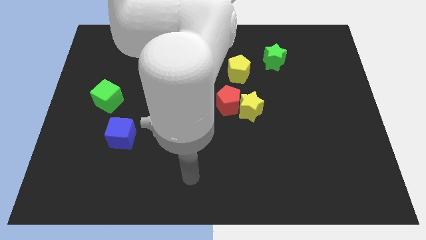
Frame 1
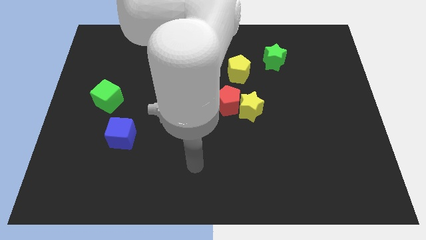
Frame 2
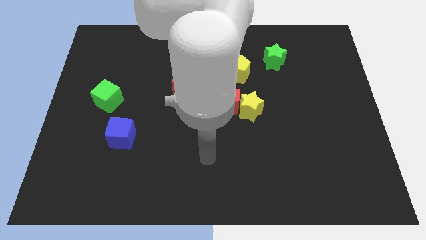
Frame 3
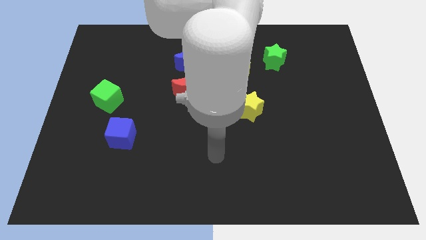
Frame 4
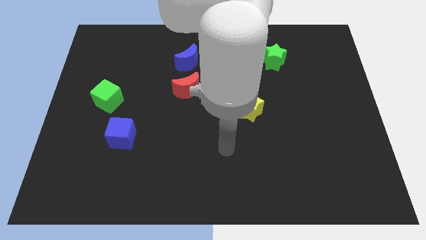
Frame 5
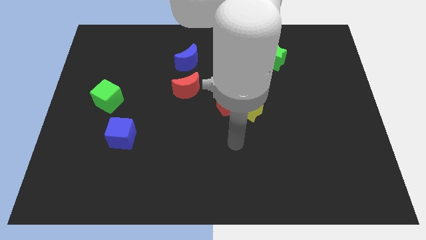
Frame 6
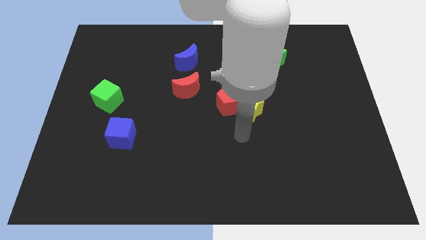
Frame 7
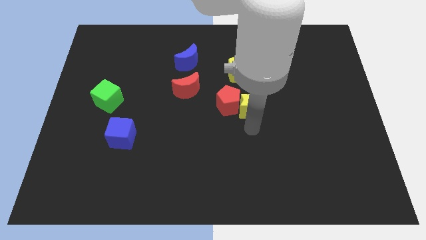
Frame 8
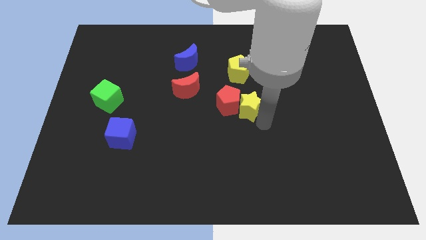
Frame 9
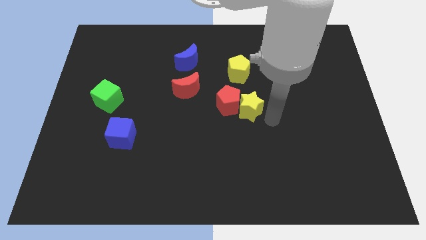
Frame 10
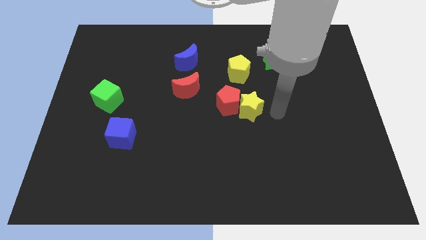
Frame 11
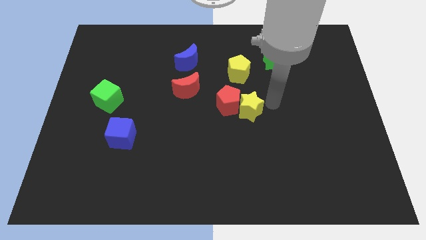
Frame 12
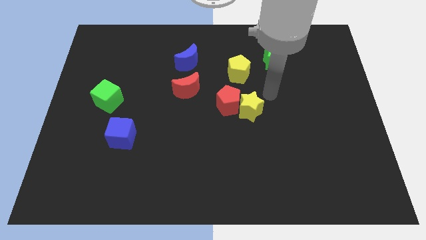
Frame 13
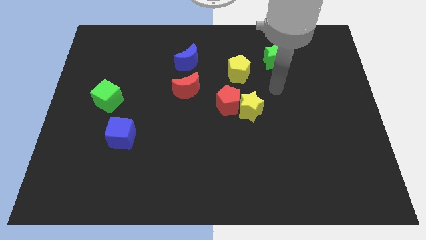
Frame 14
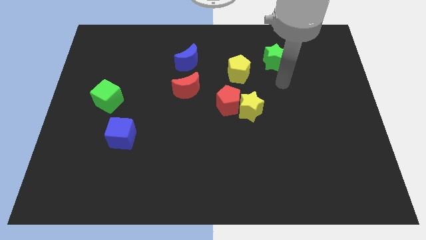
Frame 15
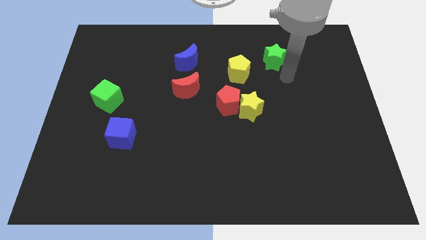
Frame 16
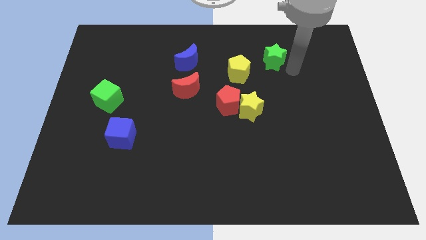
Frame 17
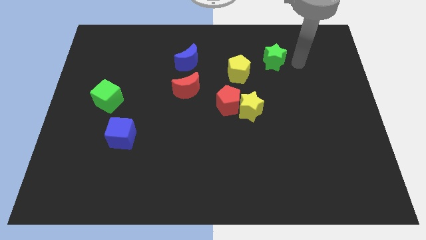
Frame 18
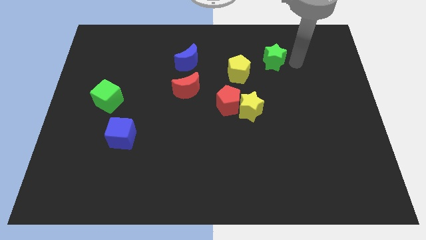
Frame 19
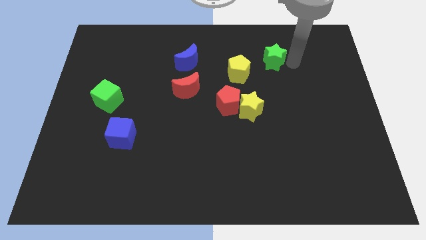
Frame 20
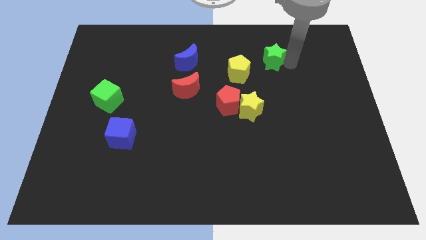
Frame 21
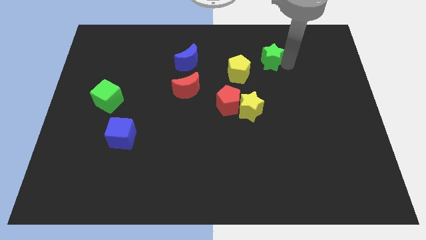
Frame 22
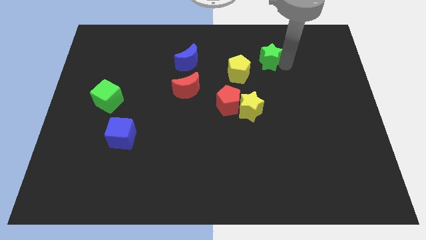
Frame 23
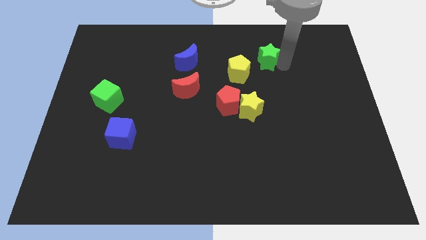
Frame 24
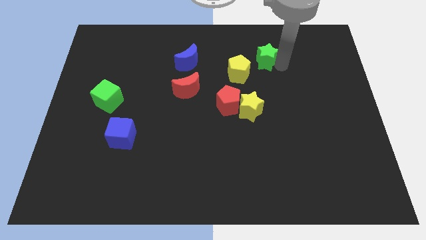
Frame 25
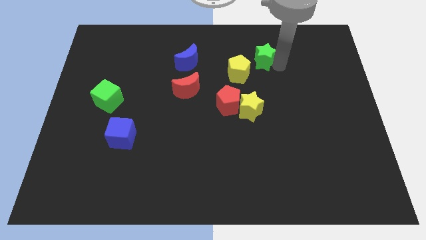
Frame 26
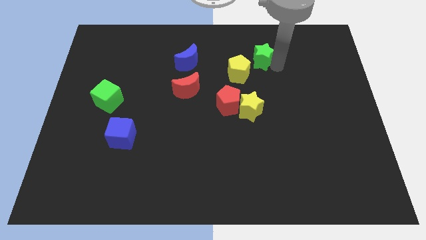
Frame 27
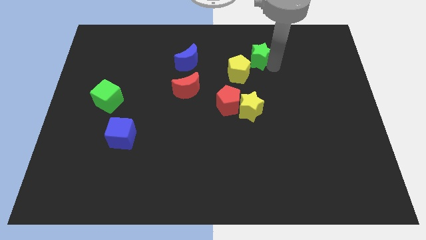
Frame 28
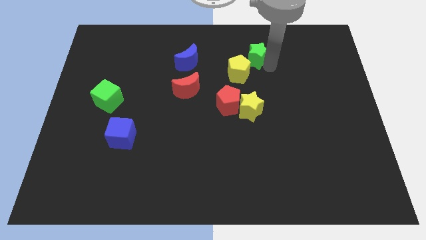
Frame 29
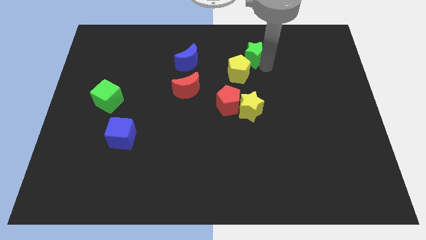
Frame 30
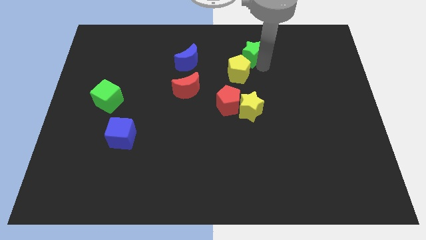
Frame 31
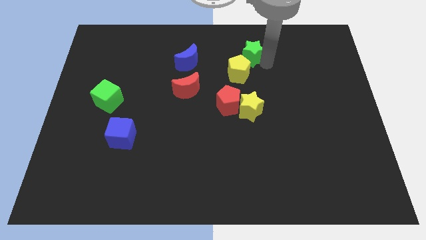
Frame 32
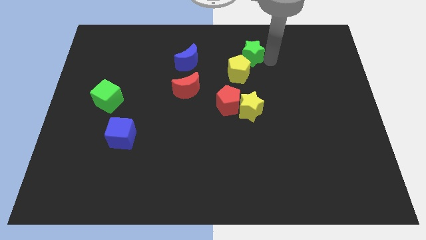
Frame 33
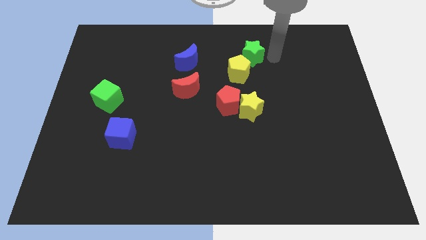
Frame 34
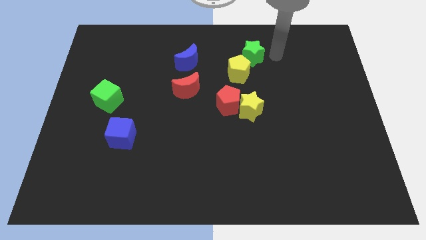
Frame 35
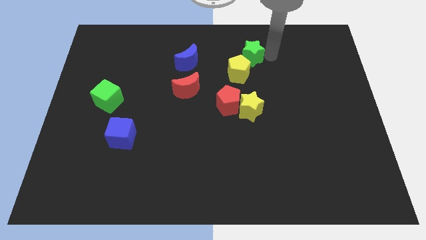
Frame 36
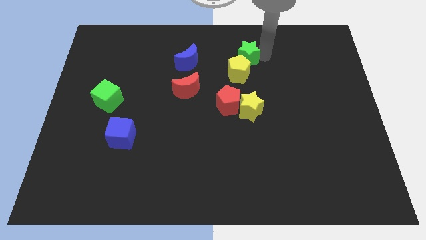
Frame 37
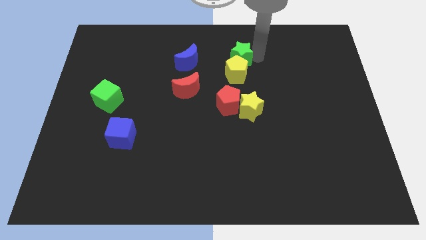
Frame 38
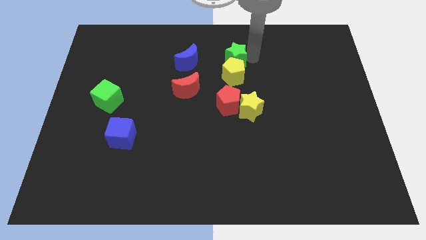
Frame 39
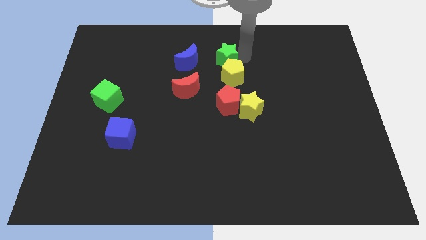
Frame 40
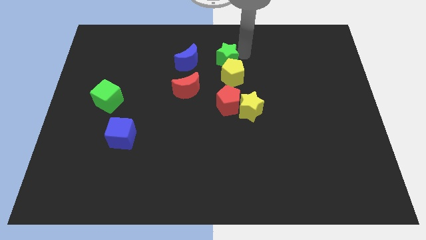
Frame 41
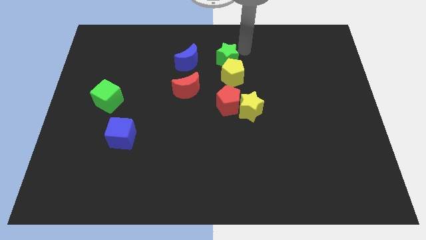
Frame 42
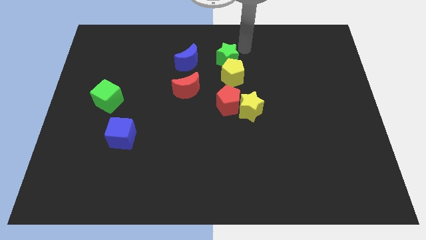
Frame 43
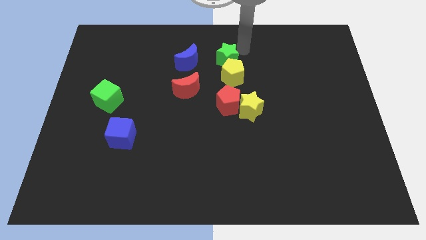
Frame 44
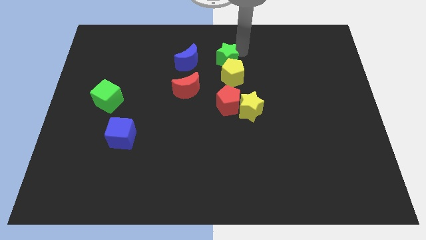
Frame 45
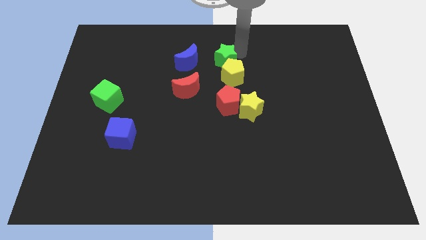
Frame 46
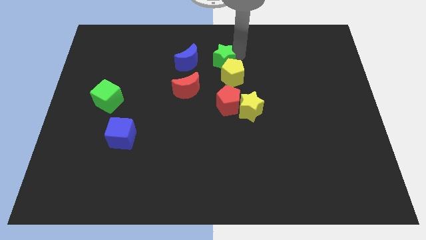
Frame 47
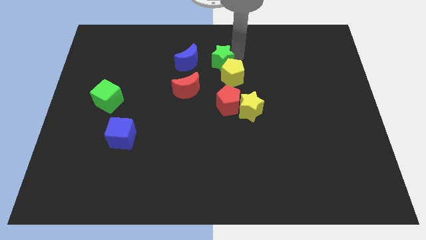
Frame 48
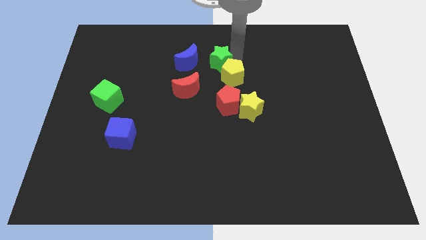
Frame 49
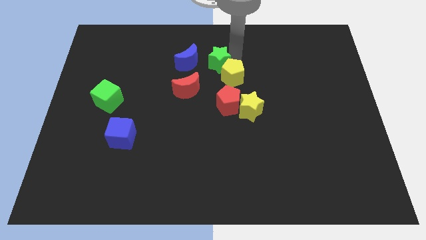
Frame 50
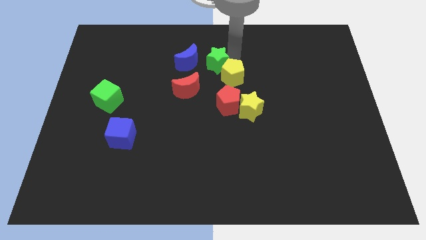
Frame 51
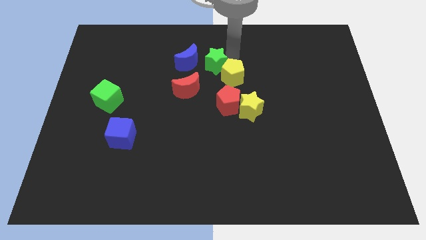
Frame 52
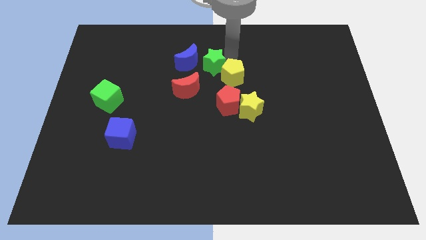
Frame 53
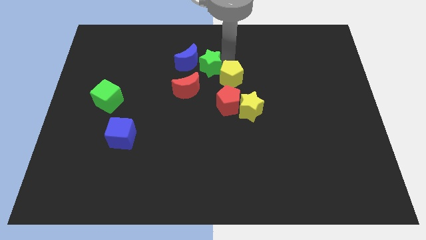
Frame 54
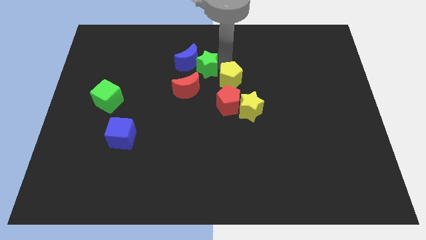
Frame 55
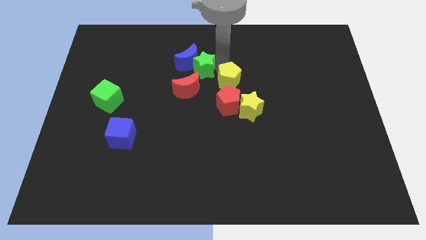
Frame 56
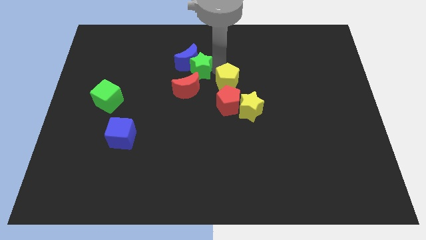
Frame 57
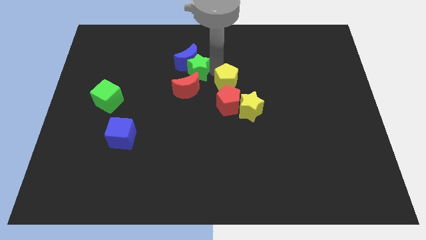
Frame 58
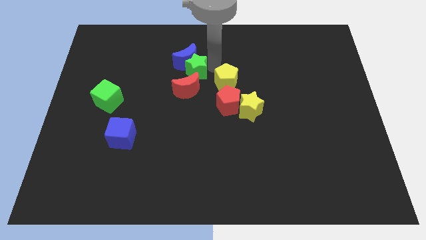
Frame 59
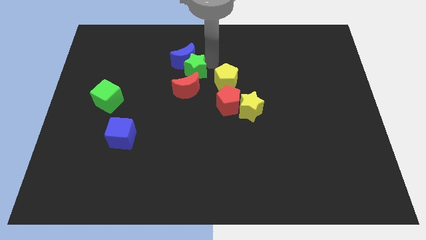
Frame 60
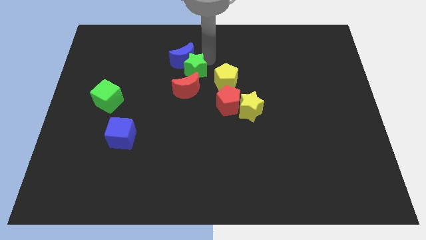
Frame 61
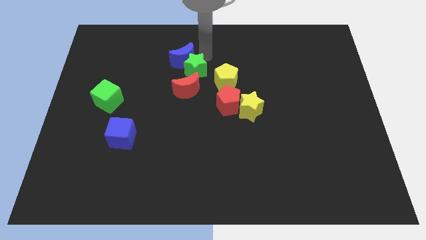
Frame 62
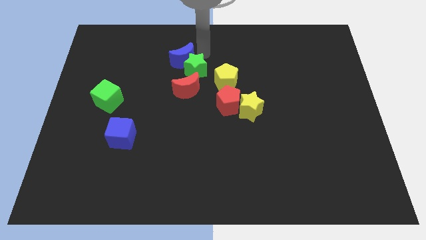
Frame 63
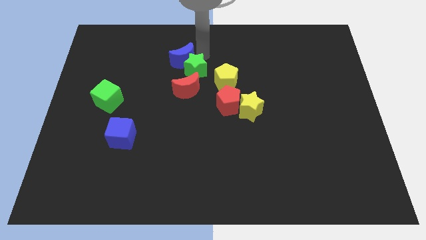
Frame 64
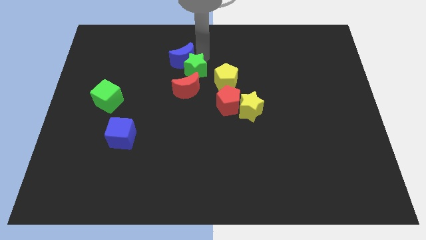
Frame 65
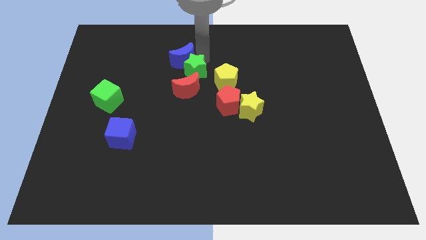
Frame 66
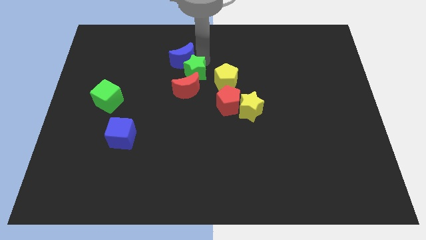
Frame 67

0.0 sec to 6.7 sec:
slide the green star to the red moon

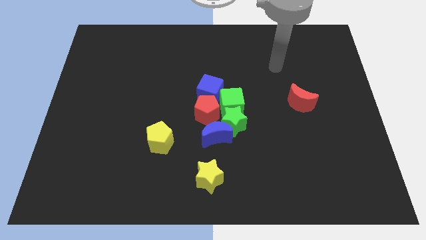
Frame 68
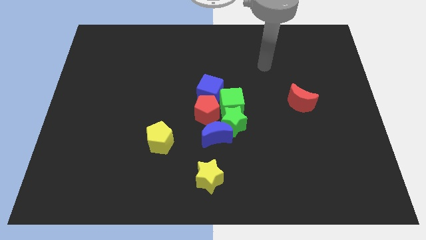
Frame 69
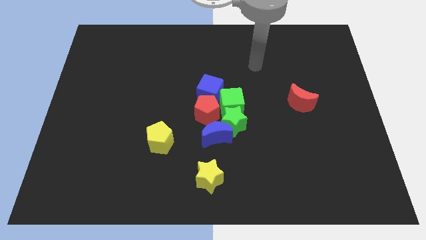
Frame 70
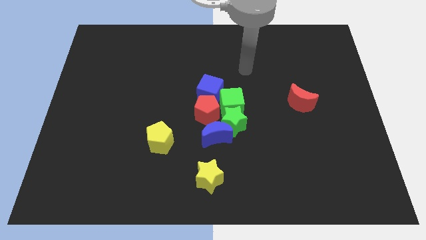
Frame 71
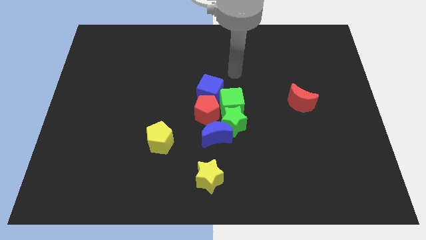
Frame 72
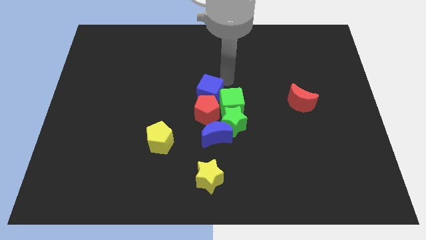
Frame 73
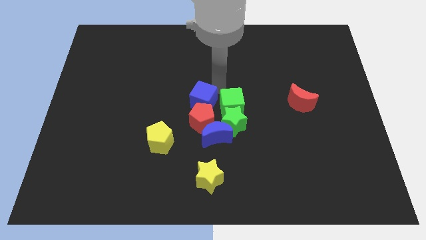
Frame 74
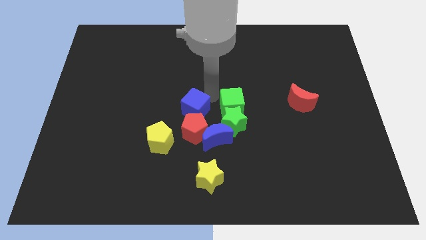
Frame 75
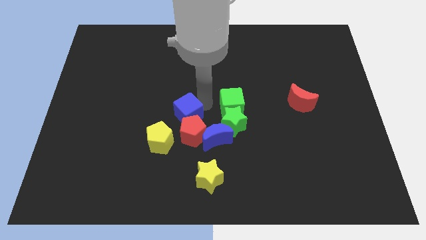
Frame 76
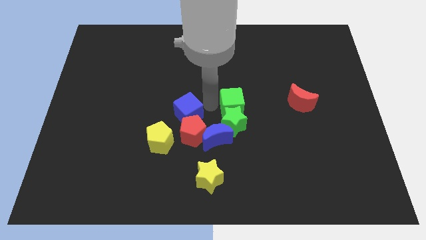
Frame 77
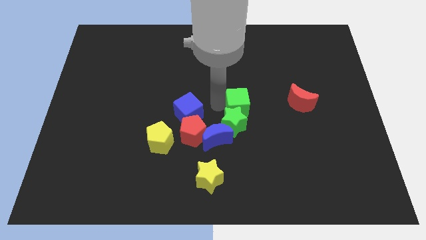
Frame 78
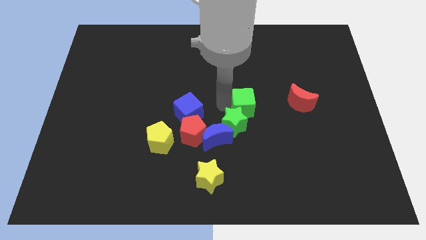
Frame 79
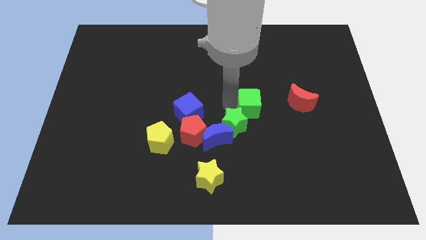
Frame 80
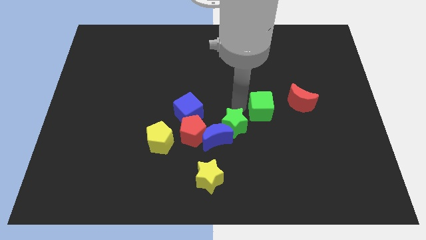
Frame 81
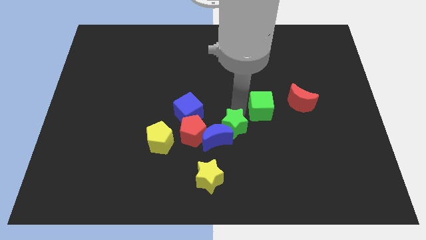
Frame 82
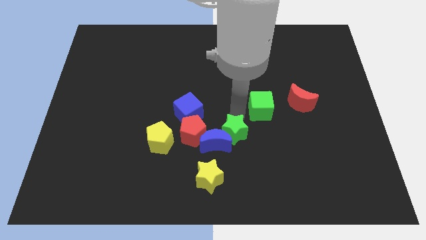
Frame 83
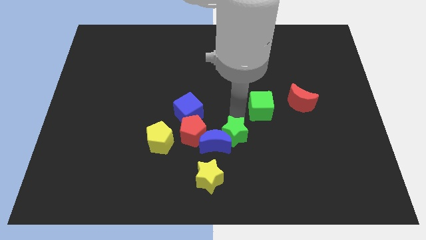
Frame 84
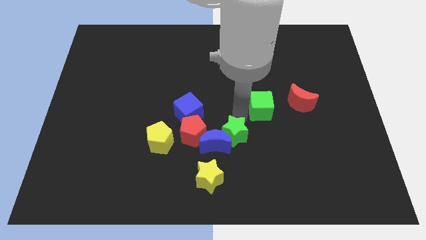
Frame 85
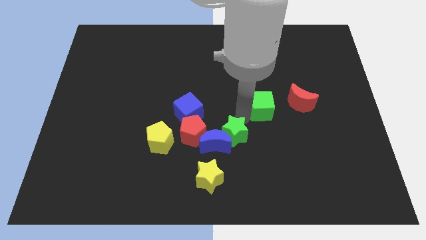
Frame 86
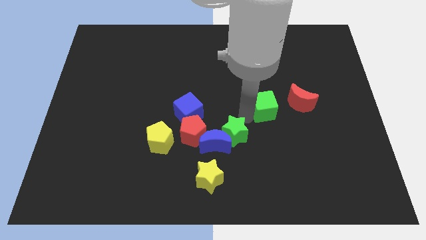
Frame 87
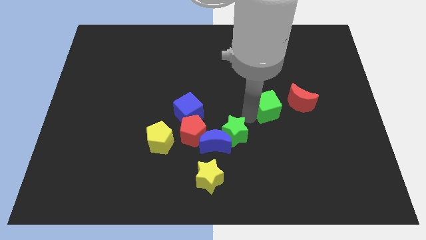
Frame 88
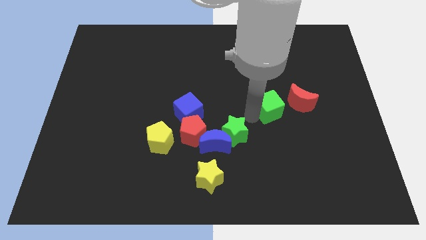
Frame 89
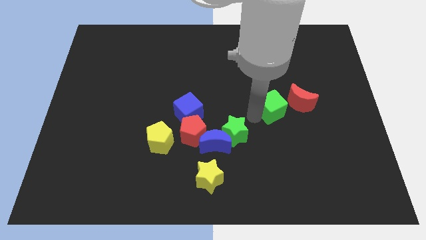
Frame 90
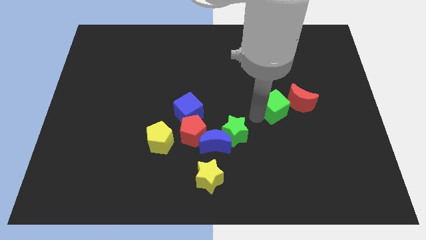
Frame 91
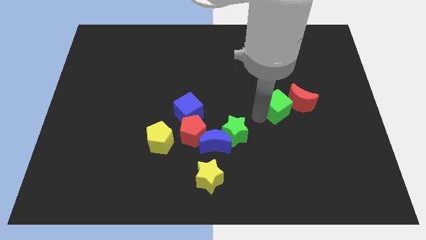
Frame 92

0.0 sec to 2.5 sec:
move the green cube next to the red moon
